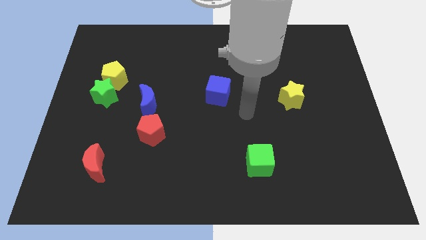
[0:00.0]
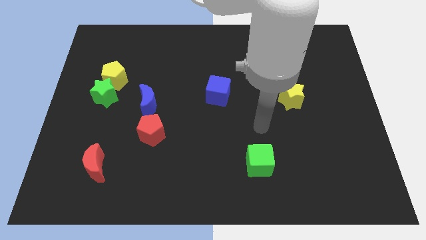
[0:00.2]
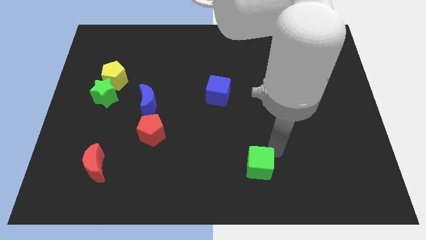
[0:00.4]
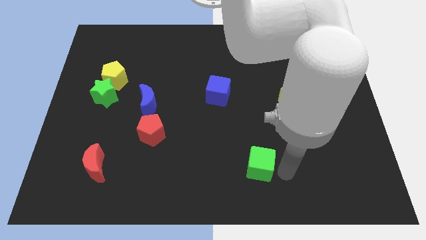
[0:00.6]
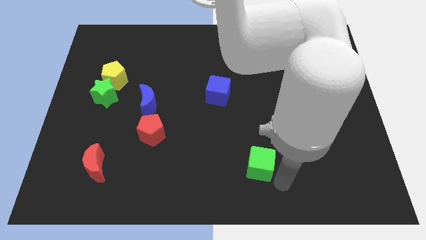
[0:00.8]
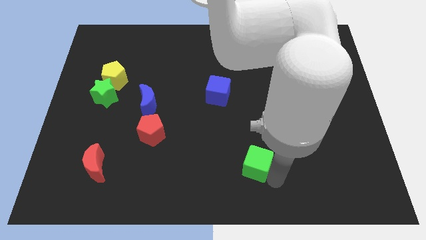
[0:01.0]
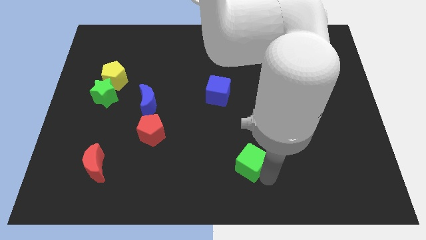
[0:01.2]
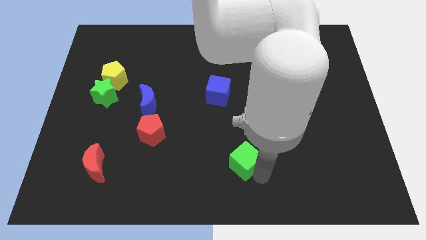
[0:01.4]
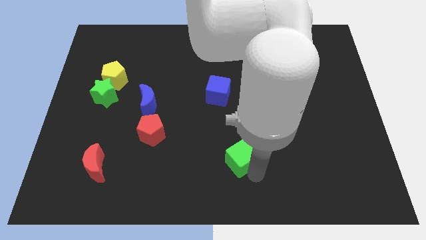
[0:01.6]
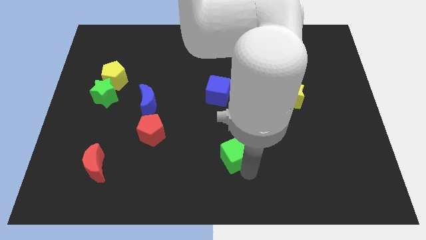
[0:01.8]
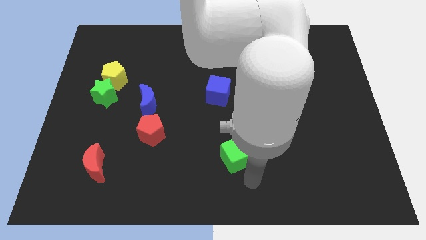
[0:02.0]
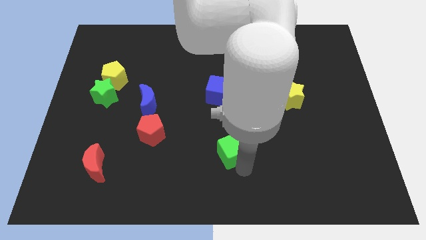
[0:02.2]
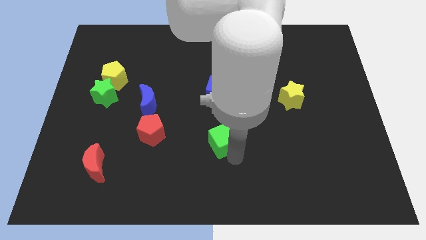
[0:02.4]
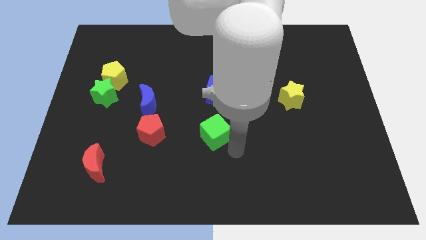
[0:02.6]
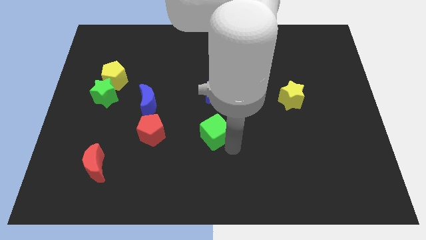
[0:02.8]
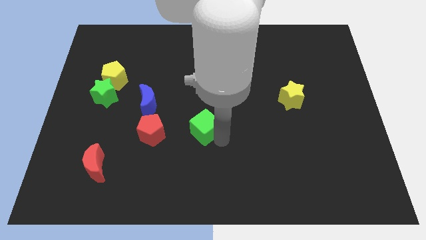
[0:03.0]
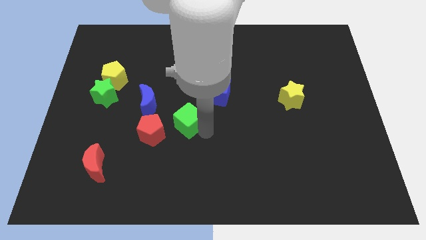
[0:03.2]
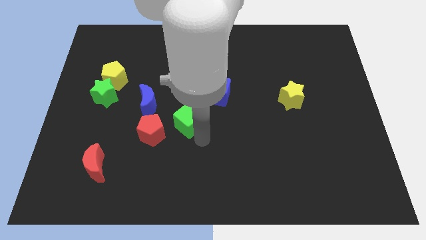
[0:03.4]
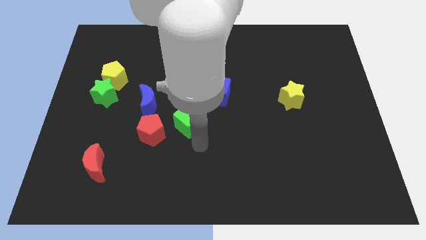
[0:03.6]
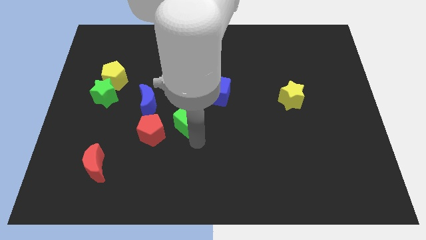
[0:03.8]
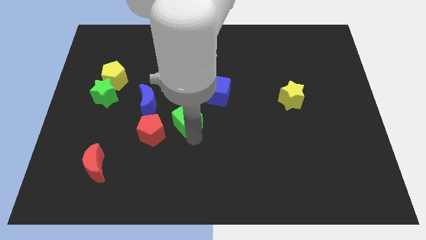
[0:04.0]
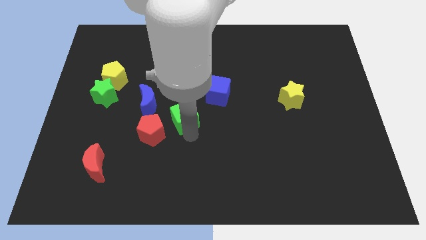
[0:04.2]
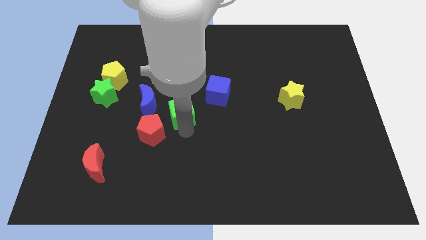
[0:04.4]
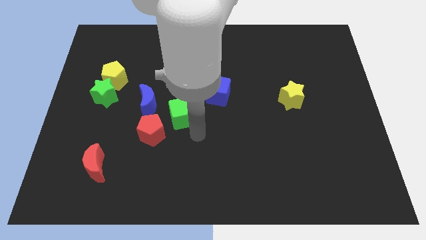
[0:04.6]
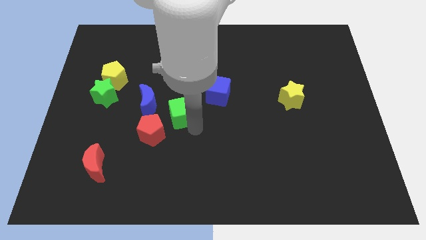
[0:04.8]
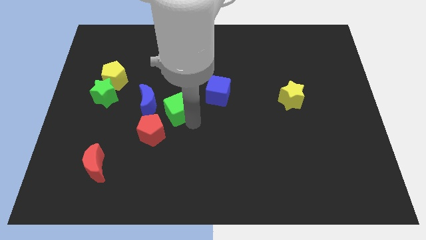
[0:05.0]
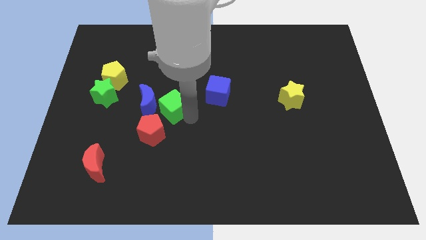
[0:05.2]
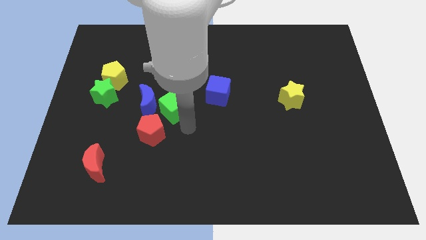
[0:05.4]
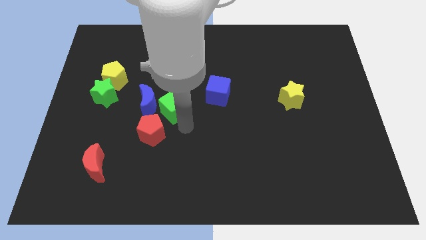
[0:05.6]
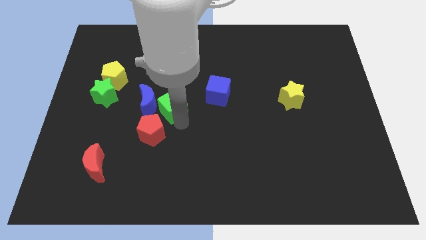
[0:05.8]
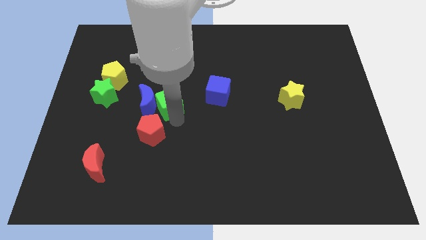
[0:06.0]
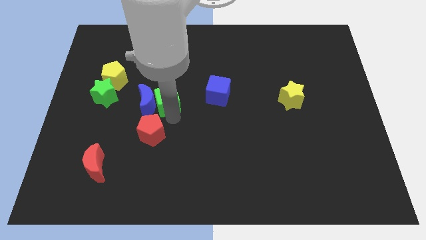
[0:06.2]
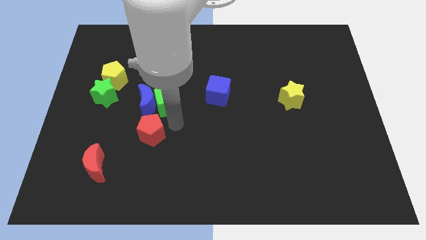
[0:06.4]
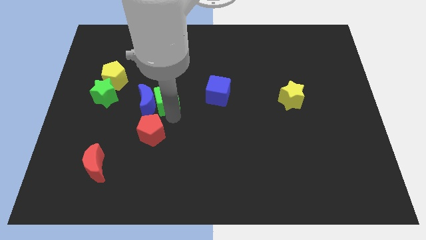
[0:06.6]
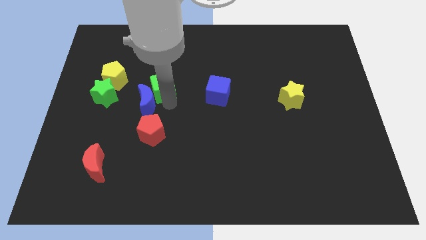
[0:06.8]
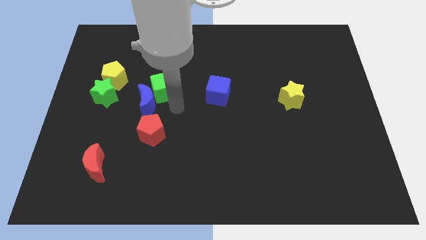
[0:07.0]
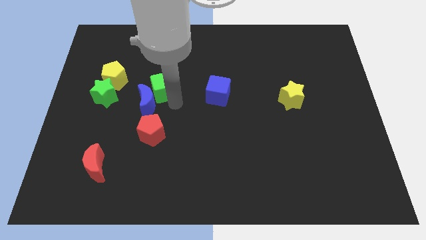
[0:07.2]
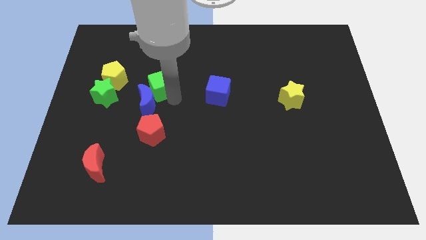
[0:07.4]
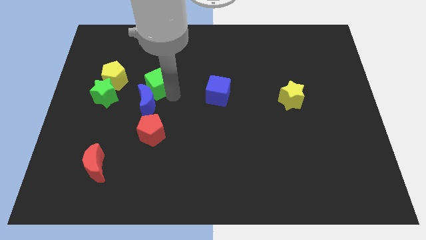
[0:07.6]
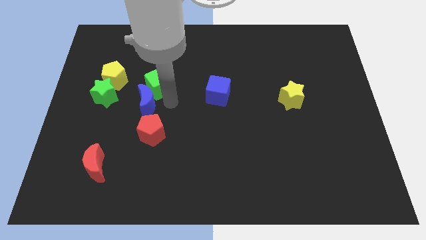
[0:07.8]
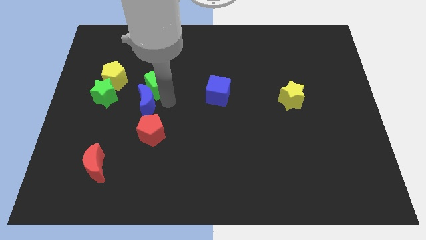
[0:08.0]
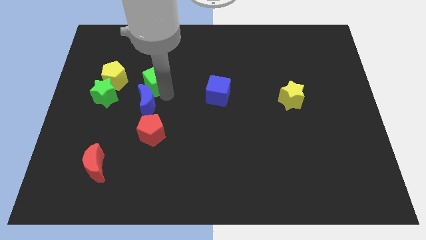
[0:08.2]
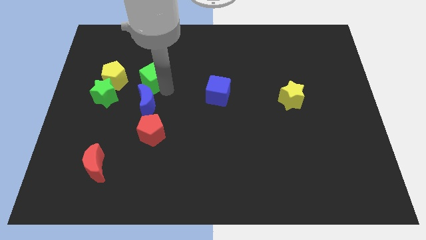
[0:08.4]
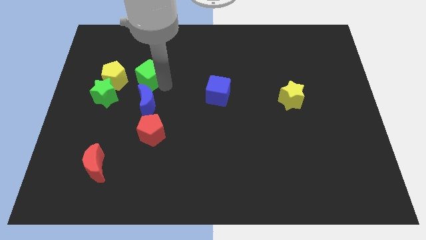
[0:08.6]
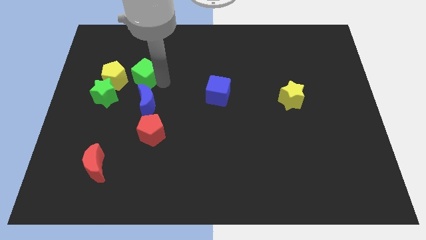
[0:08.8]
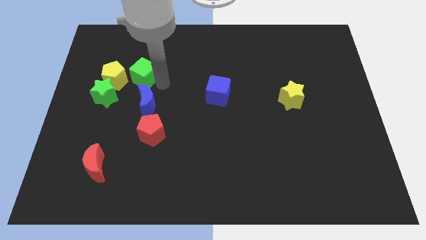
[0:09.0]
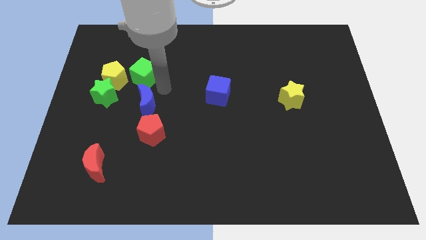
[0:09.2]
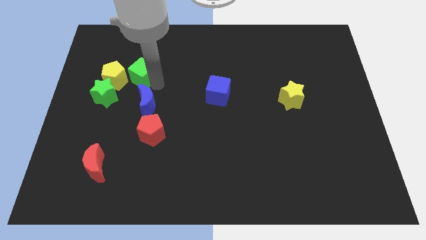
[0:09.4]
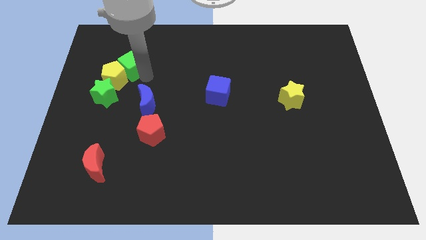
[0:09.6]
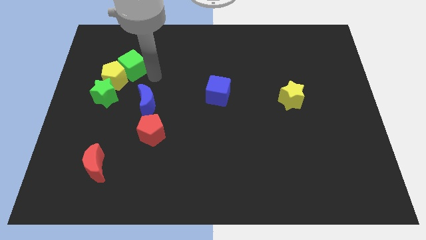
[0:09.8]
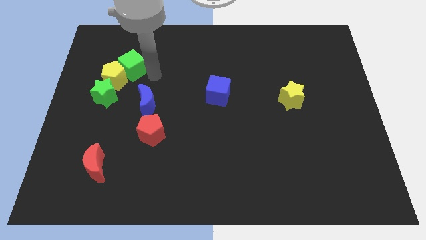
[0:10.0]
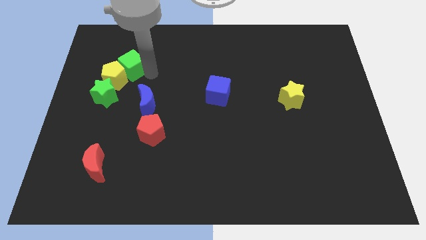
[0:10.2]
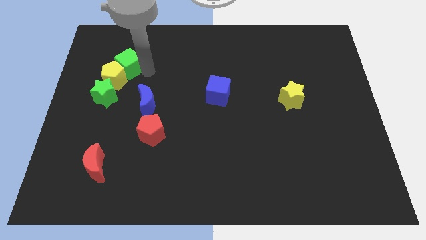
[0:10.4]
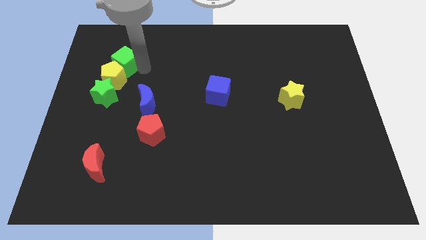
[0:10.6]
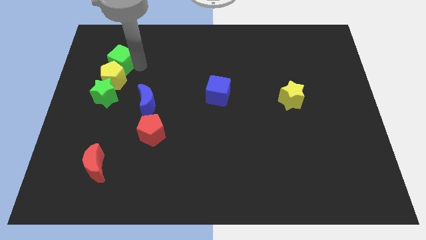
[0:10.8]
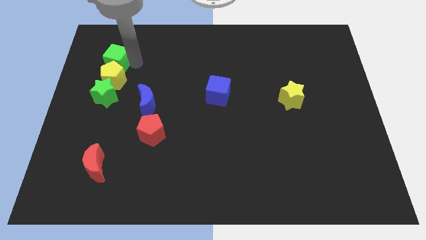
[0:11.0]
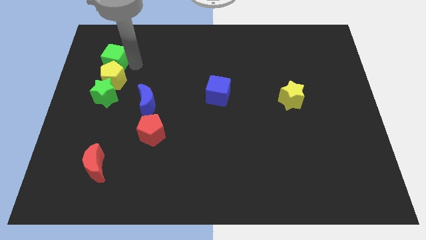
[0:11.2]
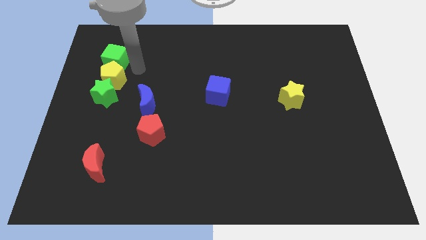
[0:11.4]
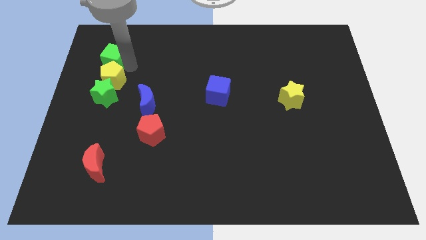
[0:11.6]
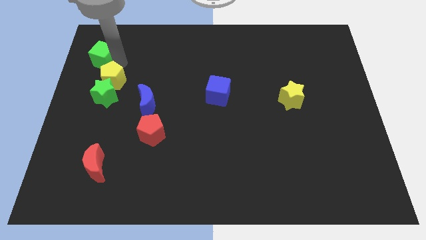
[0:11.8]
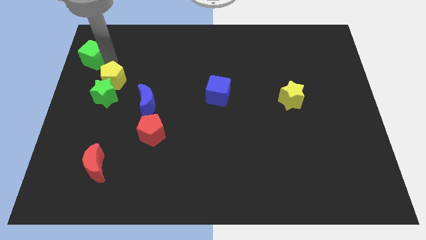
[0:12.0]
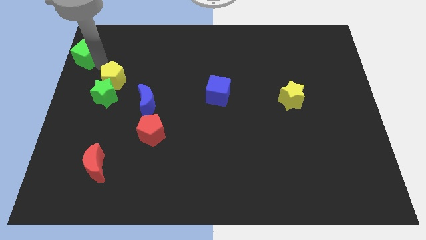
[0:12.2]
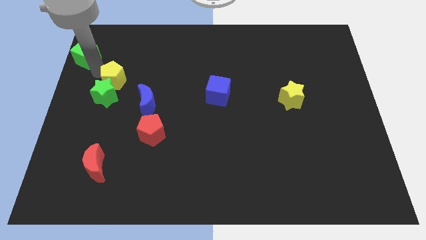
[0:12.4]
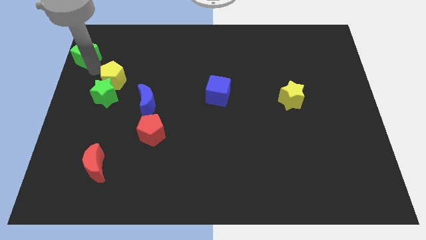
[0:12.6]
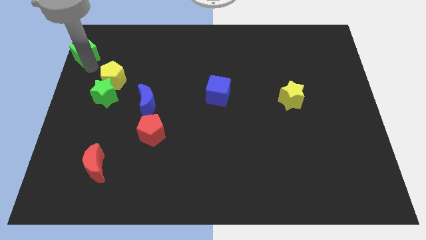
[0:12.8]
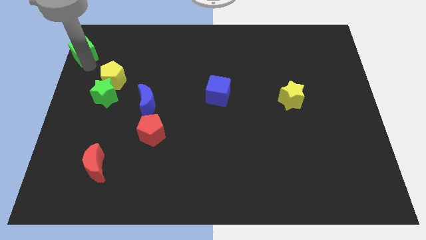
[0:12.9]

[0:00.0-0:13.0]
move the green cube to the top left of the board

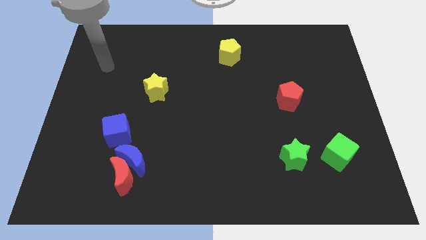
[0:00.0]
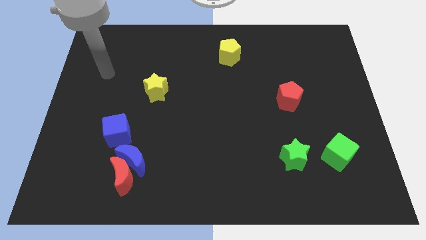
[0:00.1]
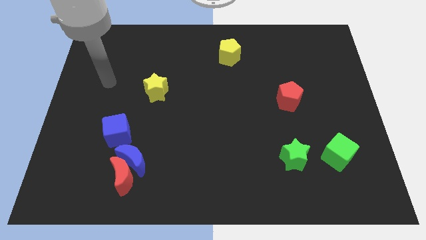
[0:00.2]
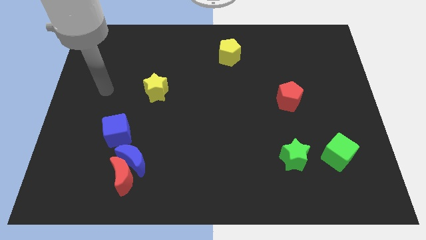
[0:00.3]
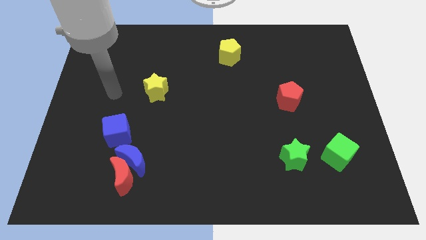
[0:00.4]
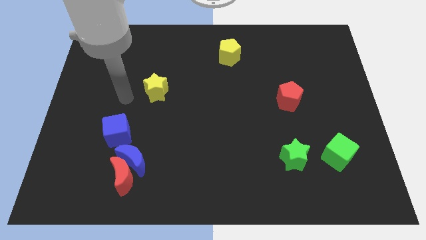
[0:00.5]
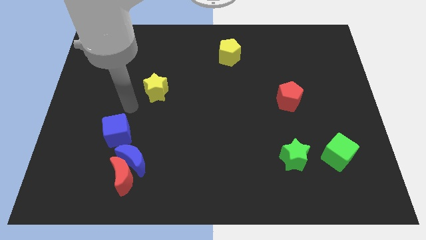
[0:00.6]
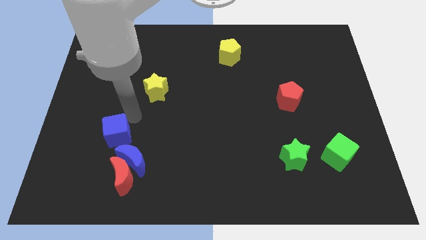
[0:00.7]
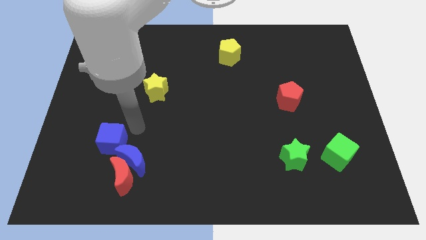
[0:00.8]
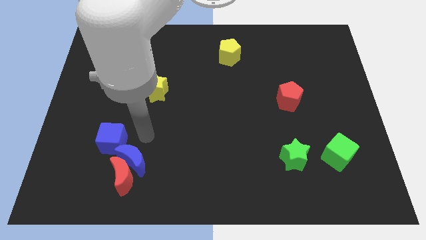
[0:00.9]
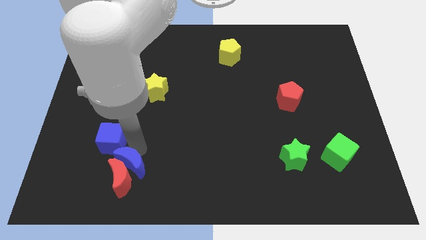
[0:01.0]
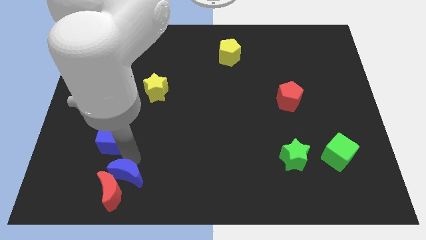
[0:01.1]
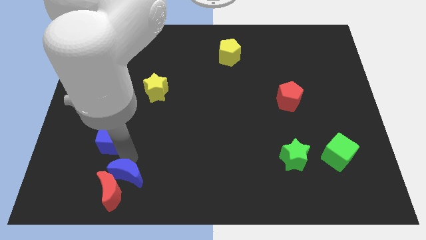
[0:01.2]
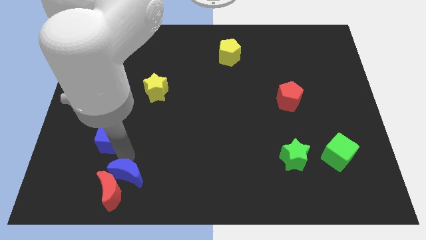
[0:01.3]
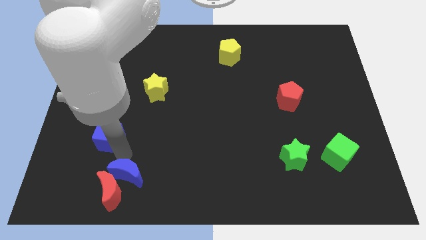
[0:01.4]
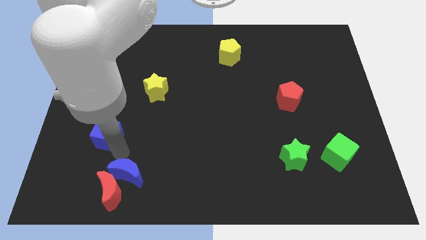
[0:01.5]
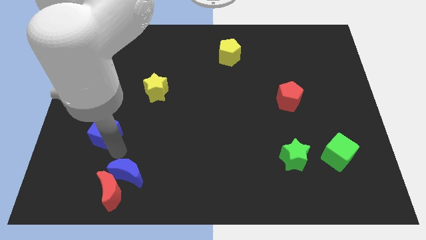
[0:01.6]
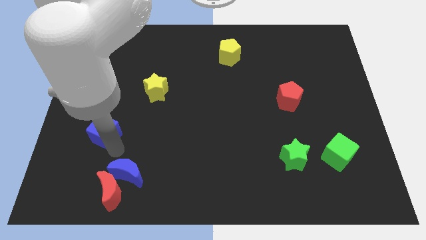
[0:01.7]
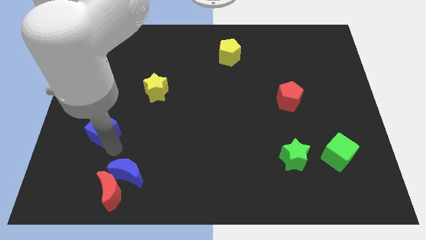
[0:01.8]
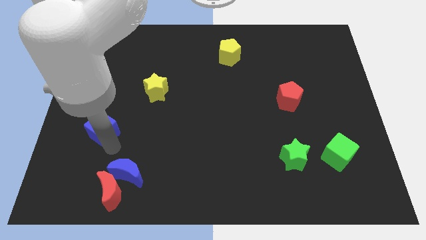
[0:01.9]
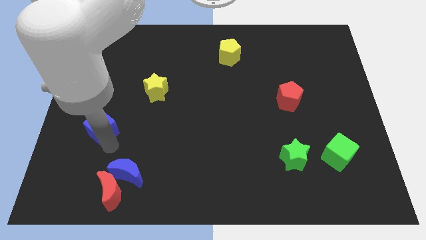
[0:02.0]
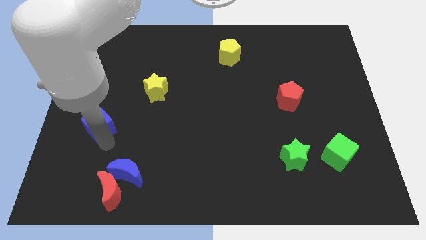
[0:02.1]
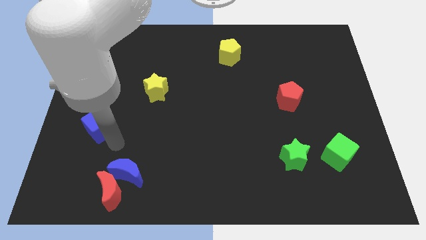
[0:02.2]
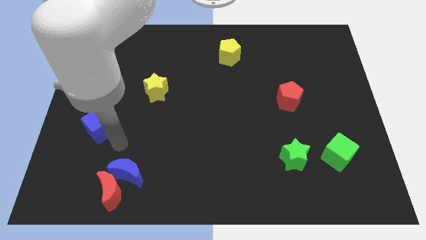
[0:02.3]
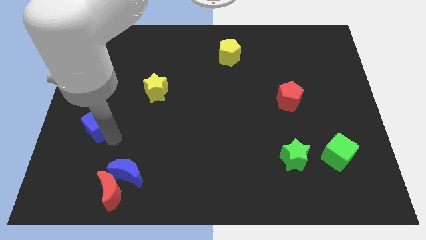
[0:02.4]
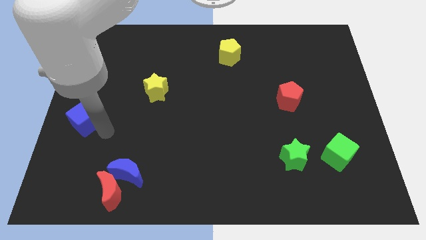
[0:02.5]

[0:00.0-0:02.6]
put the blue cube to the left side of the board
